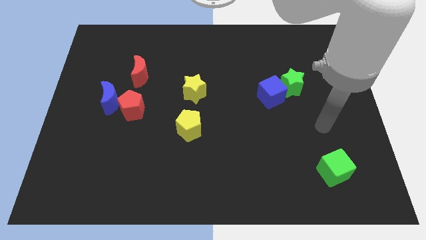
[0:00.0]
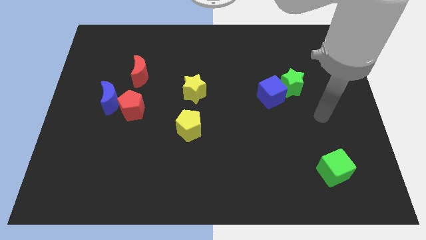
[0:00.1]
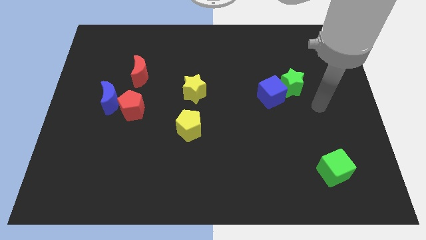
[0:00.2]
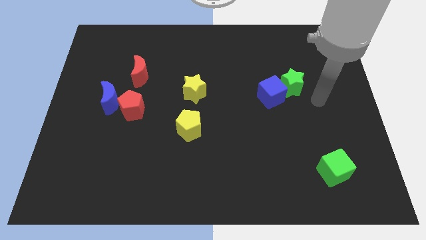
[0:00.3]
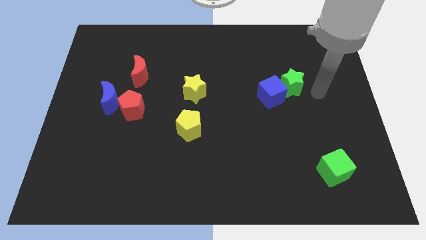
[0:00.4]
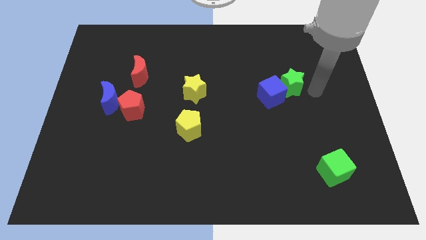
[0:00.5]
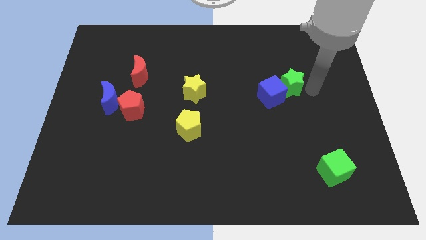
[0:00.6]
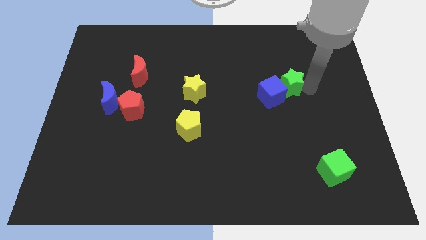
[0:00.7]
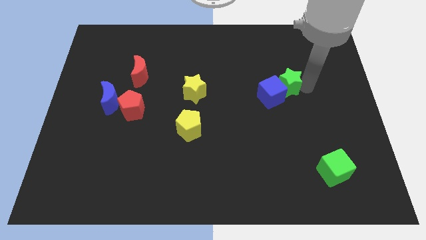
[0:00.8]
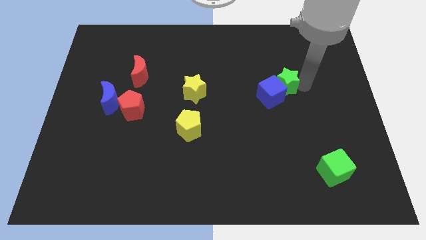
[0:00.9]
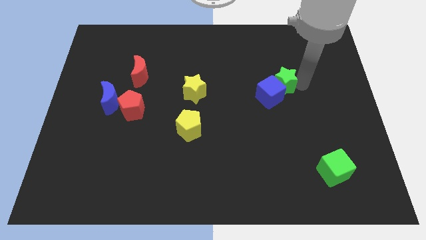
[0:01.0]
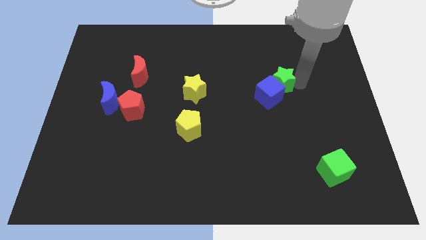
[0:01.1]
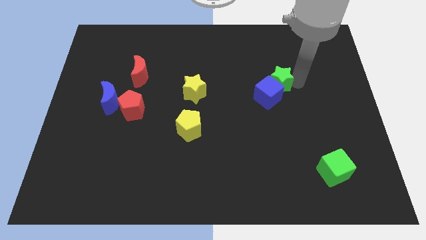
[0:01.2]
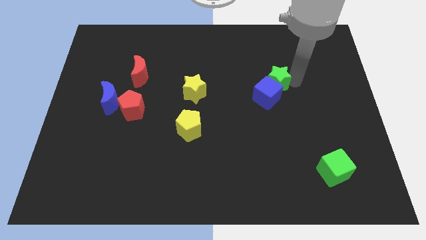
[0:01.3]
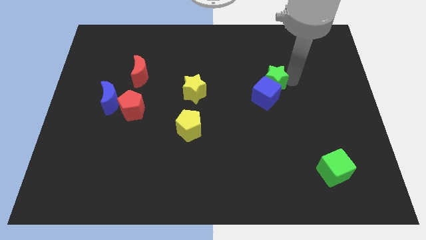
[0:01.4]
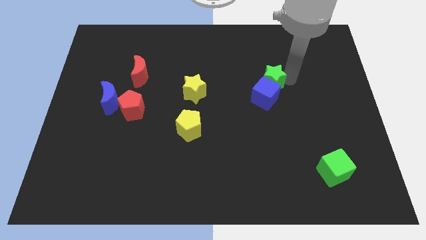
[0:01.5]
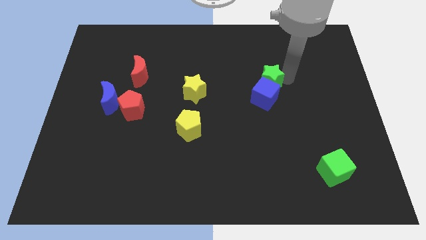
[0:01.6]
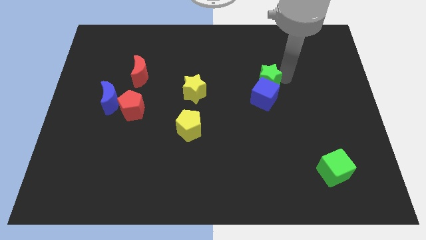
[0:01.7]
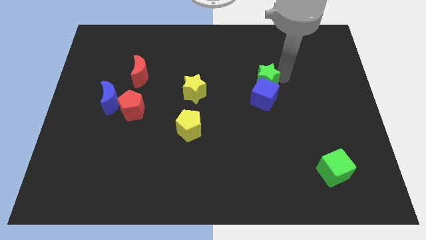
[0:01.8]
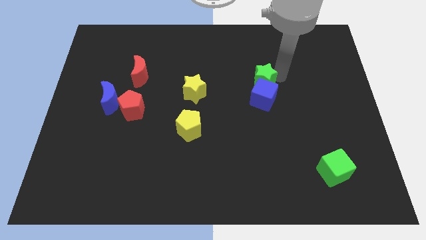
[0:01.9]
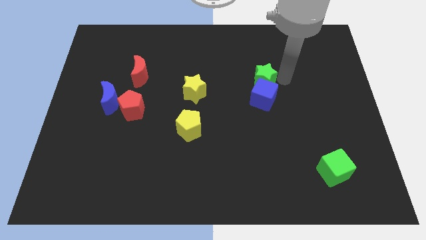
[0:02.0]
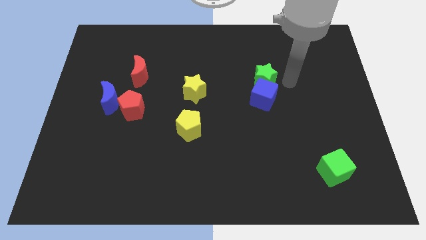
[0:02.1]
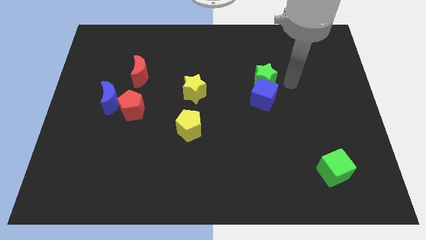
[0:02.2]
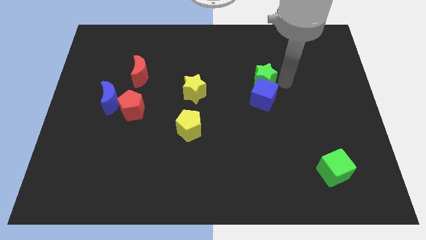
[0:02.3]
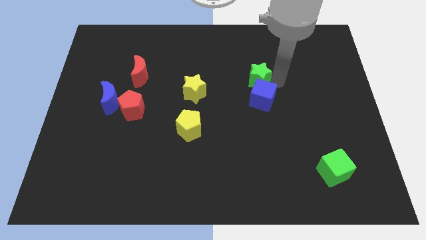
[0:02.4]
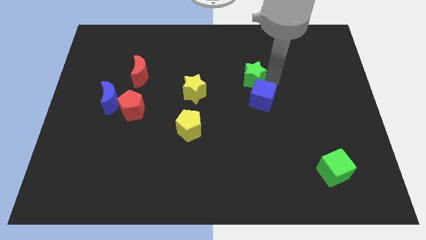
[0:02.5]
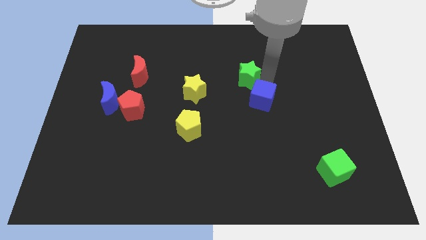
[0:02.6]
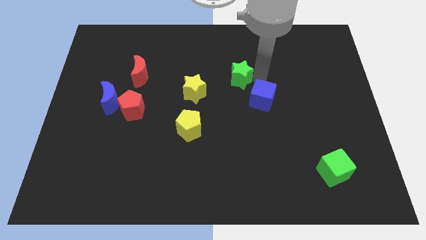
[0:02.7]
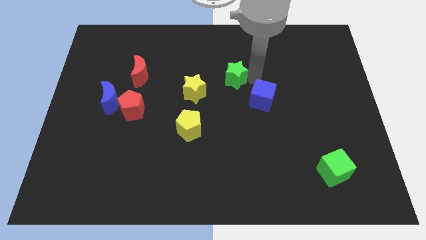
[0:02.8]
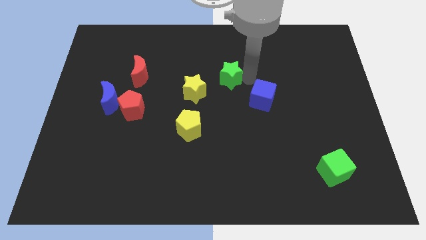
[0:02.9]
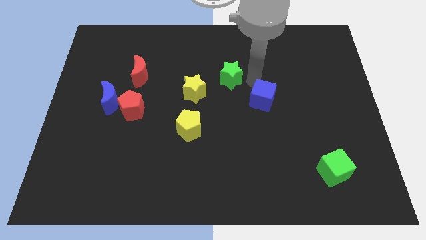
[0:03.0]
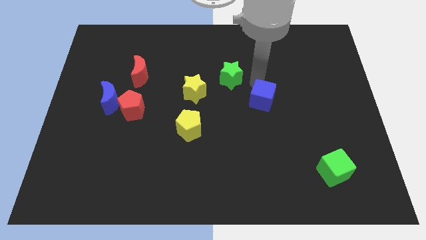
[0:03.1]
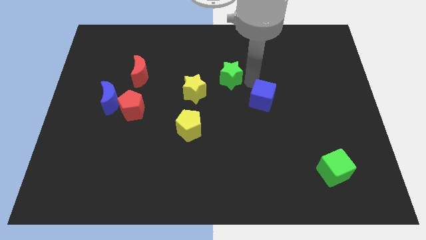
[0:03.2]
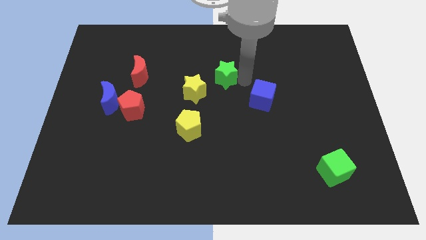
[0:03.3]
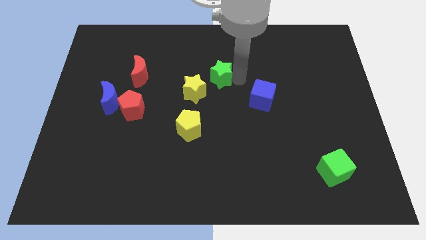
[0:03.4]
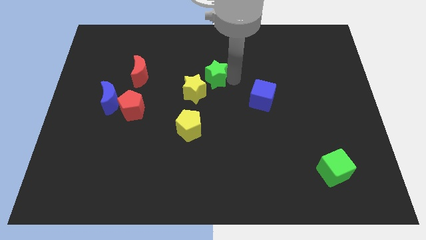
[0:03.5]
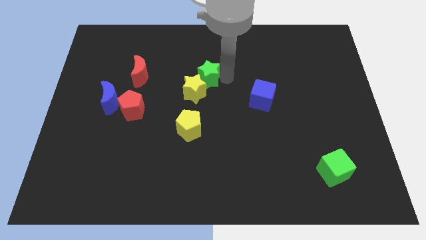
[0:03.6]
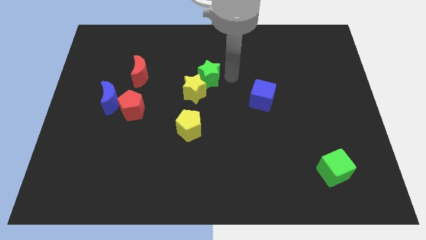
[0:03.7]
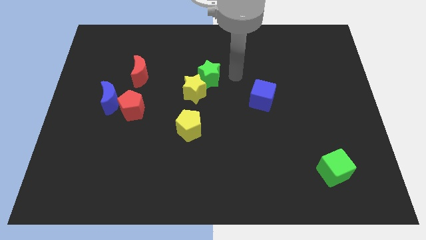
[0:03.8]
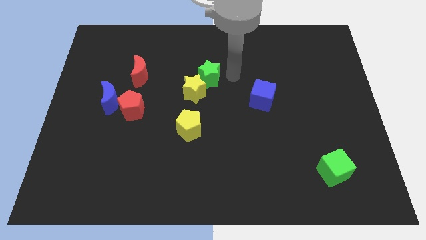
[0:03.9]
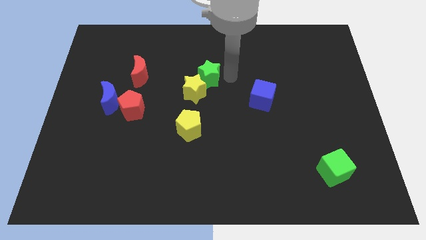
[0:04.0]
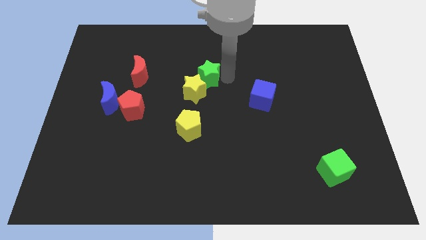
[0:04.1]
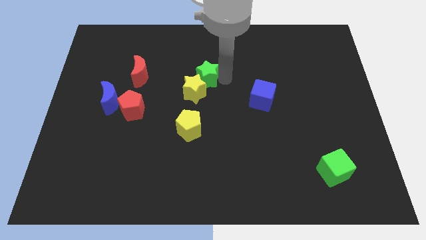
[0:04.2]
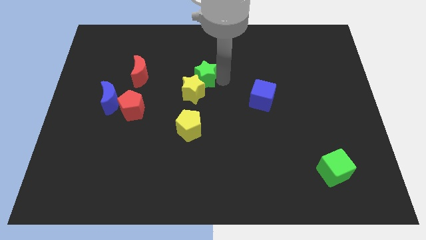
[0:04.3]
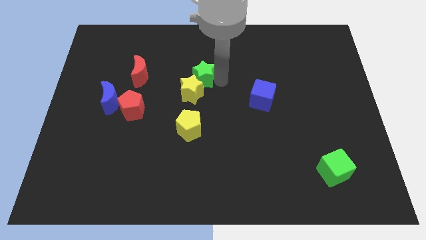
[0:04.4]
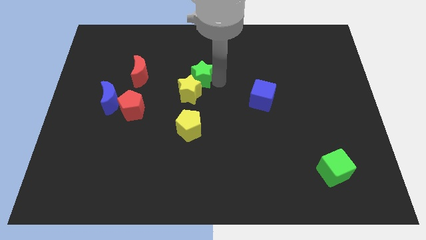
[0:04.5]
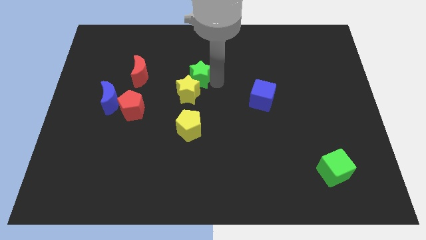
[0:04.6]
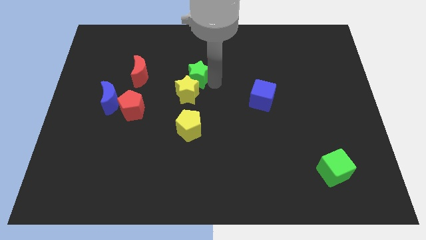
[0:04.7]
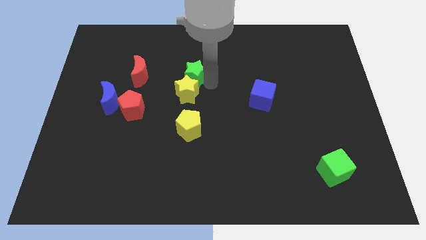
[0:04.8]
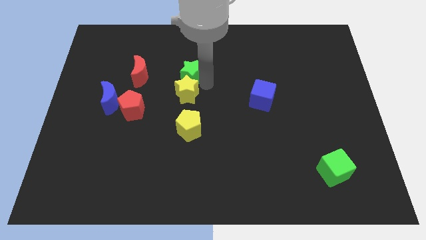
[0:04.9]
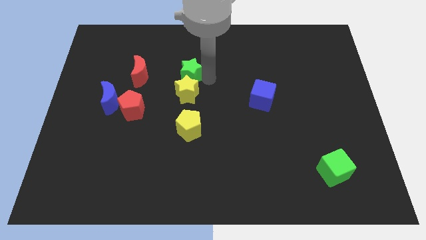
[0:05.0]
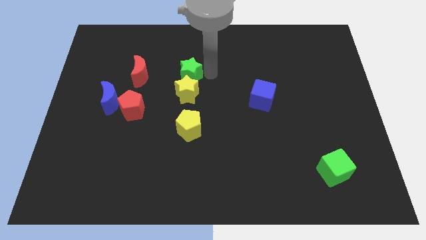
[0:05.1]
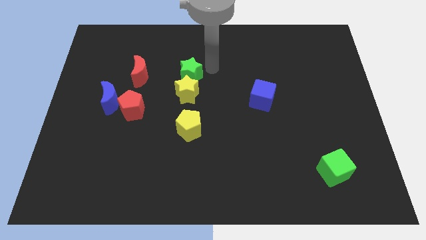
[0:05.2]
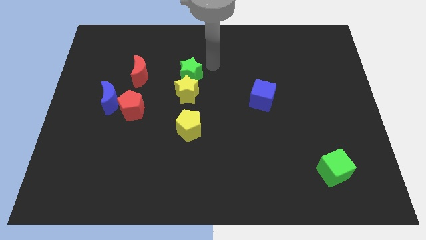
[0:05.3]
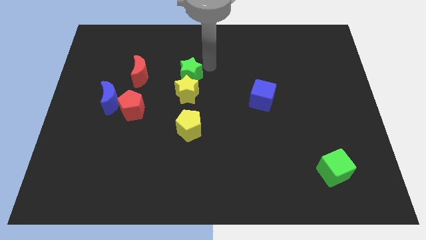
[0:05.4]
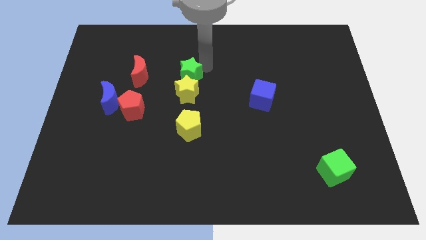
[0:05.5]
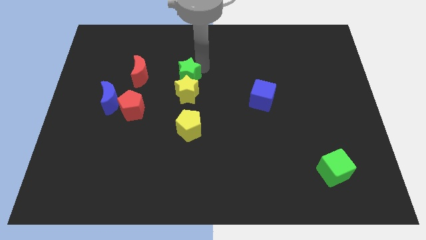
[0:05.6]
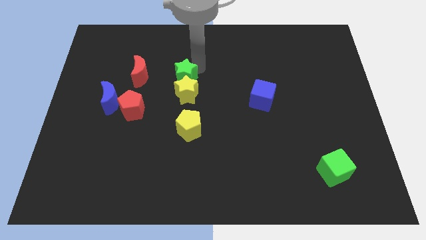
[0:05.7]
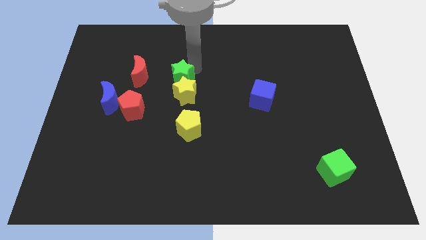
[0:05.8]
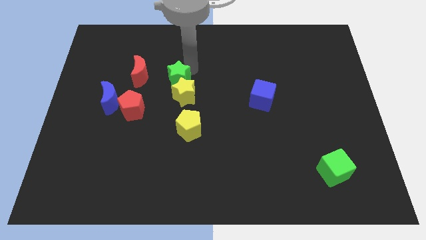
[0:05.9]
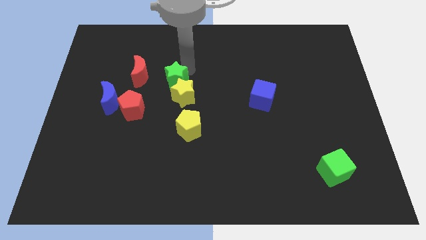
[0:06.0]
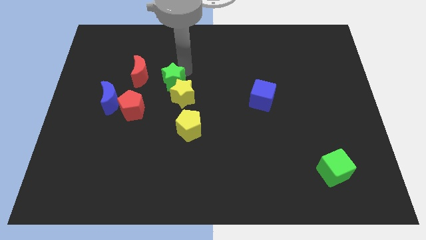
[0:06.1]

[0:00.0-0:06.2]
slide the green star to the top right of the red pentagon

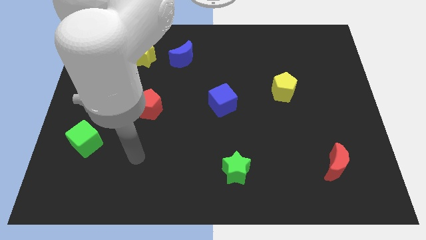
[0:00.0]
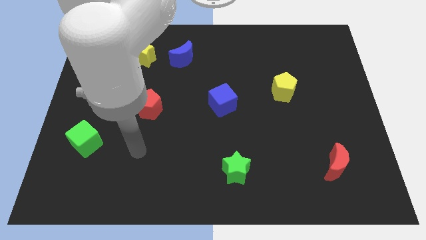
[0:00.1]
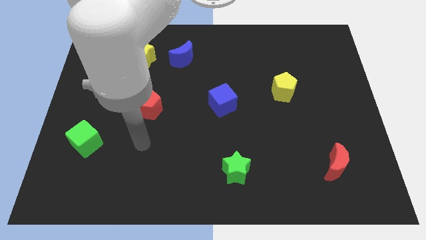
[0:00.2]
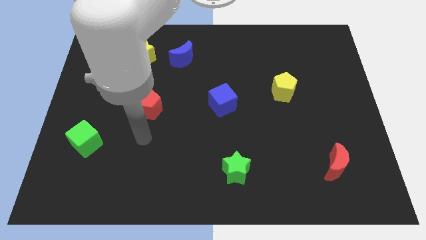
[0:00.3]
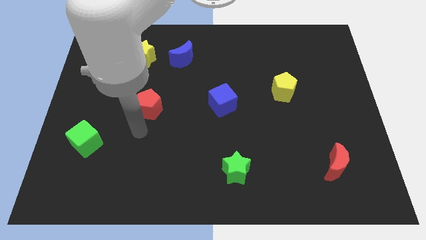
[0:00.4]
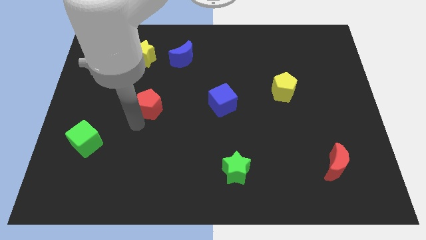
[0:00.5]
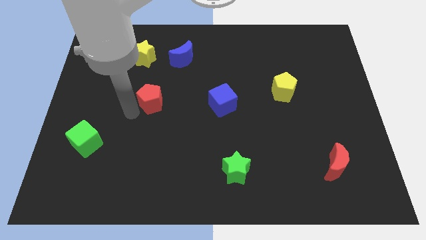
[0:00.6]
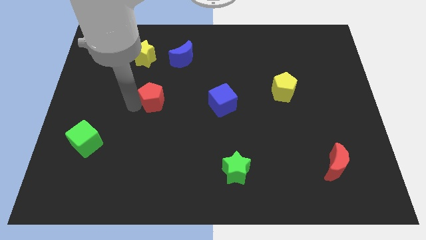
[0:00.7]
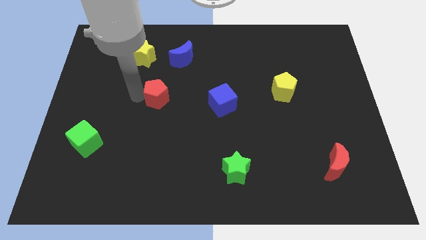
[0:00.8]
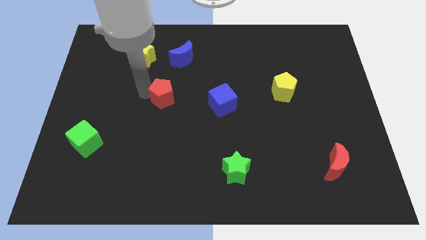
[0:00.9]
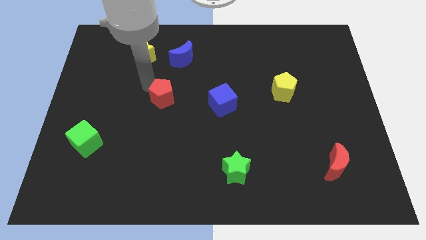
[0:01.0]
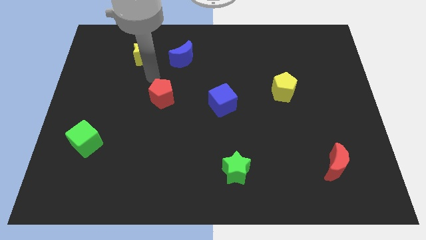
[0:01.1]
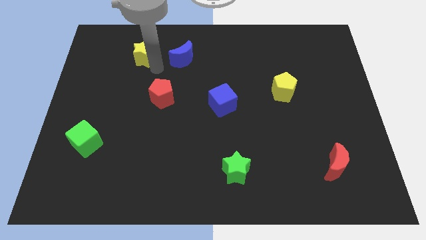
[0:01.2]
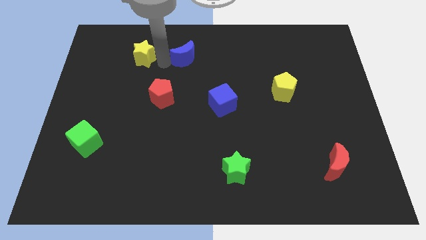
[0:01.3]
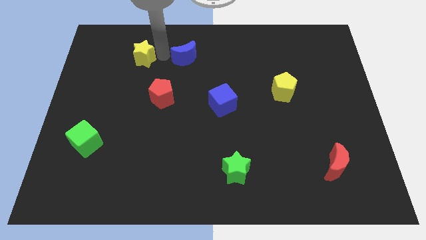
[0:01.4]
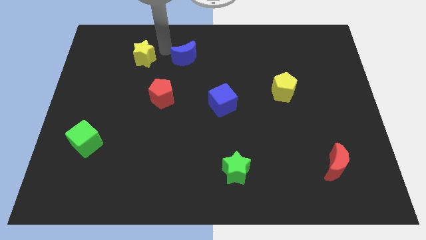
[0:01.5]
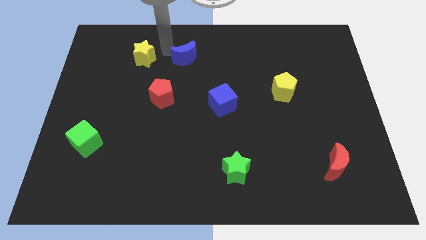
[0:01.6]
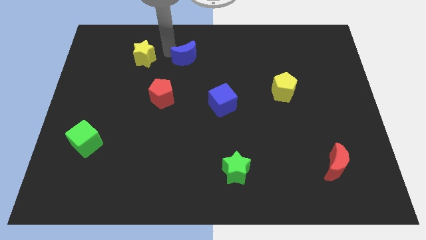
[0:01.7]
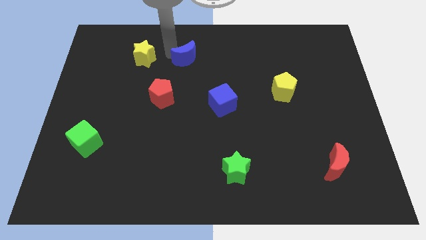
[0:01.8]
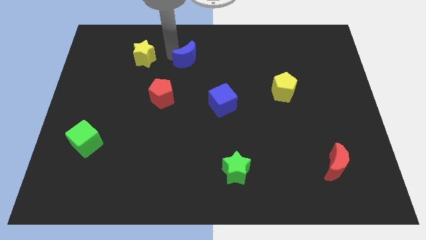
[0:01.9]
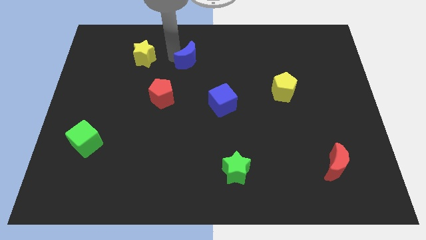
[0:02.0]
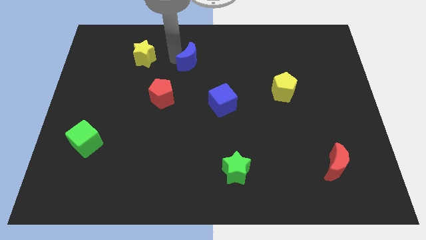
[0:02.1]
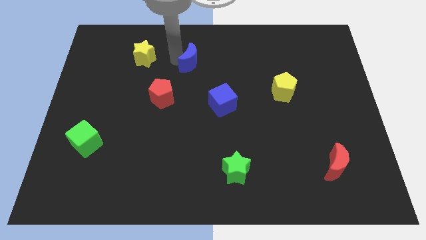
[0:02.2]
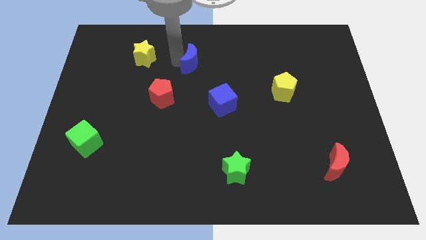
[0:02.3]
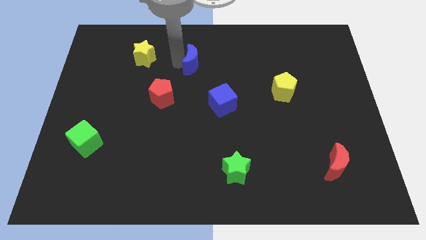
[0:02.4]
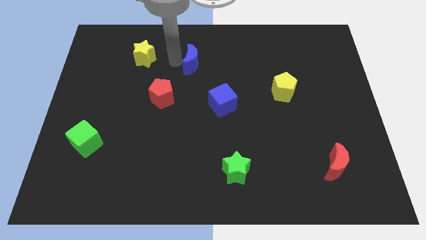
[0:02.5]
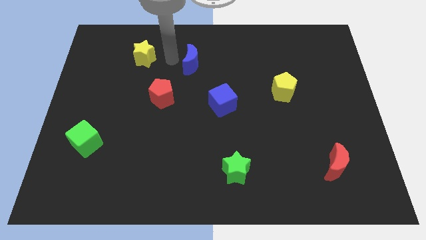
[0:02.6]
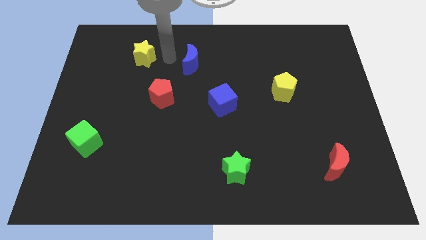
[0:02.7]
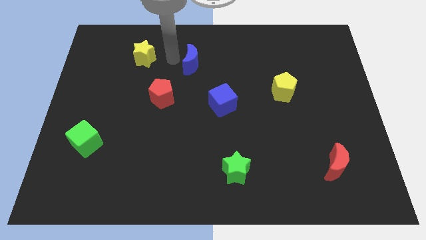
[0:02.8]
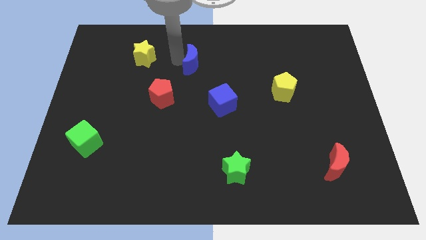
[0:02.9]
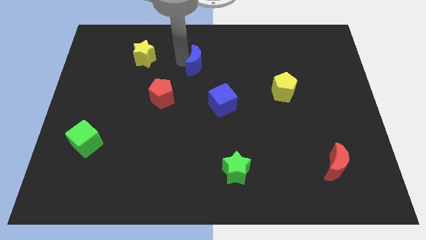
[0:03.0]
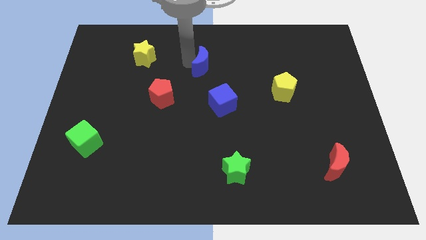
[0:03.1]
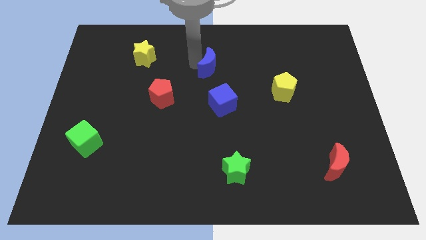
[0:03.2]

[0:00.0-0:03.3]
push the blue moon above the blue cube
